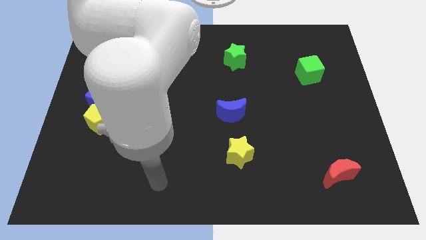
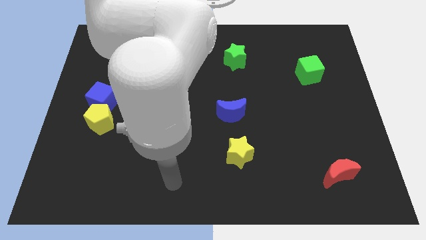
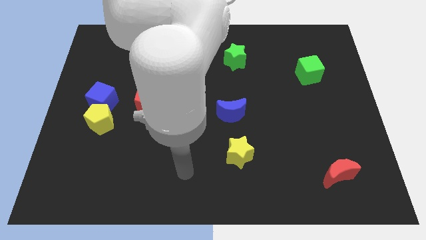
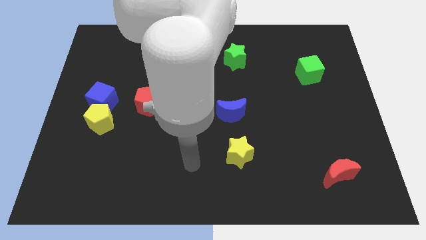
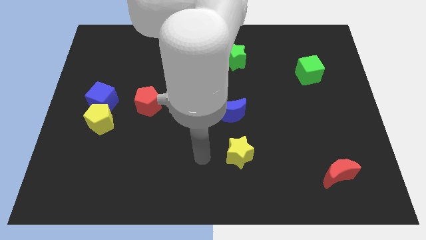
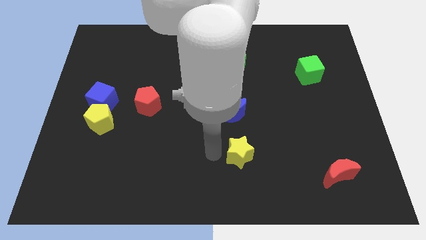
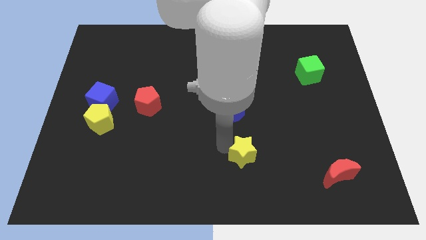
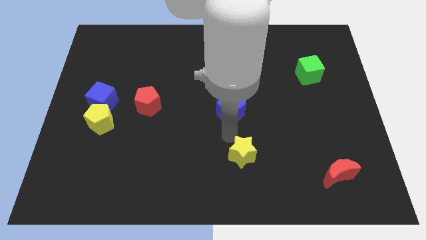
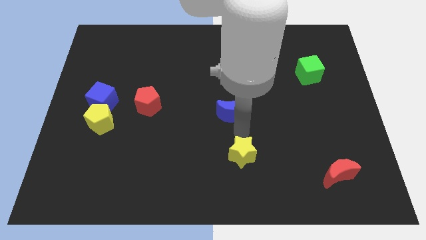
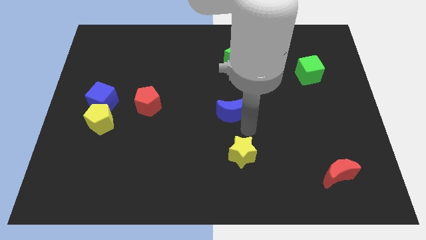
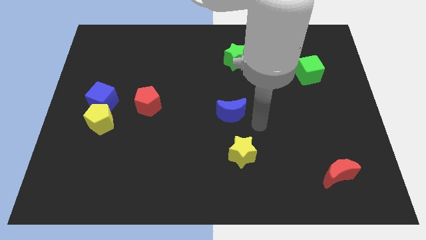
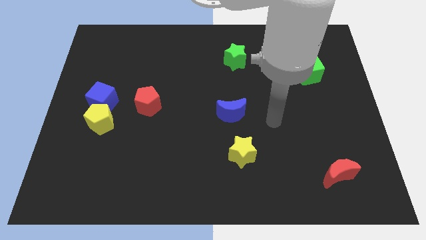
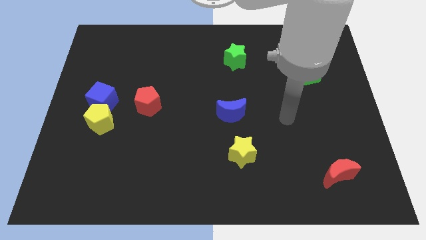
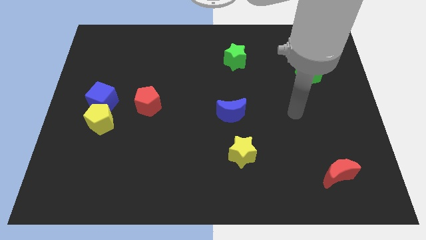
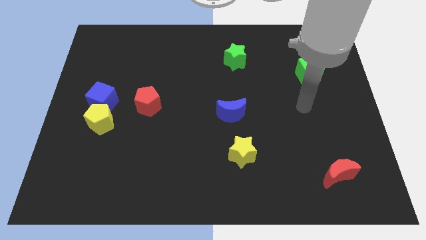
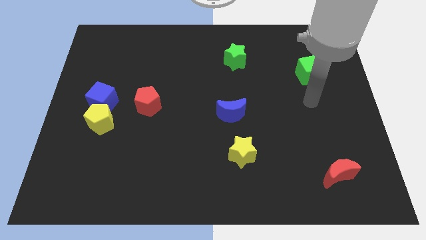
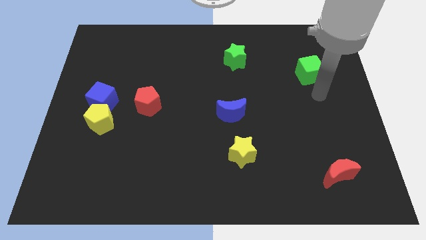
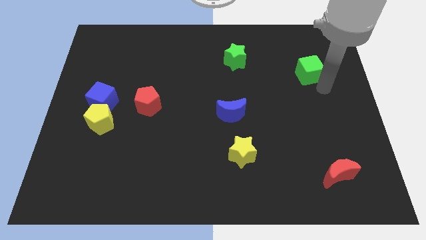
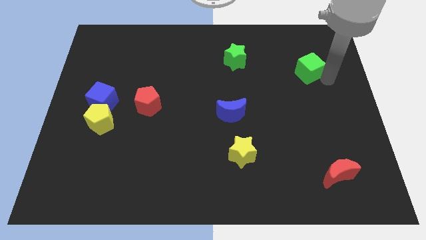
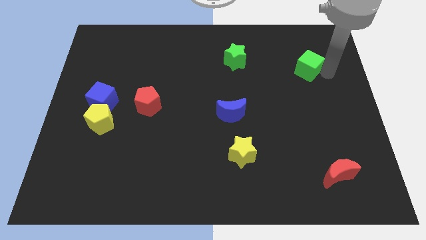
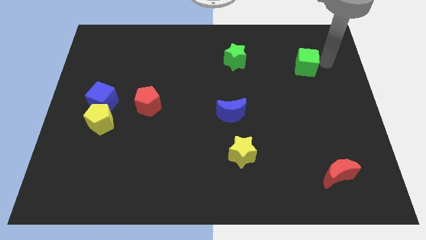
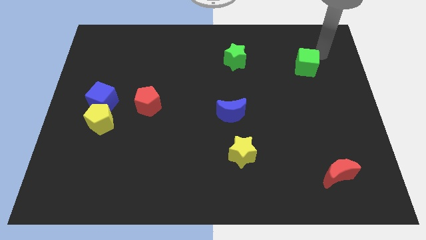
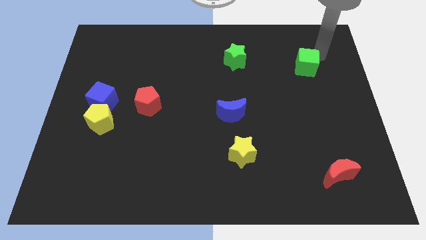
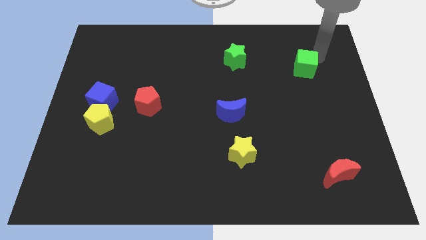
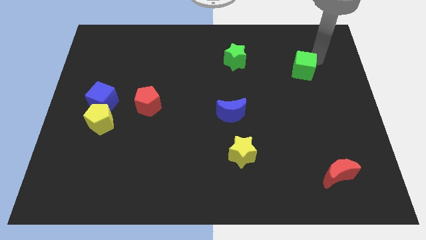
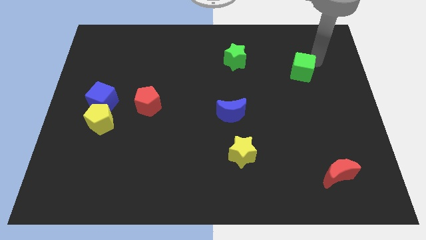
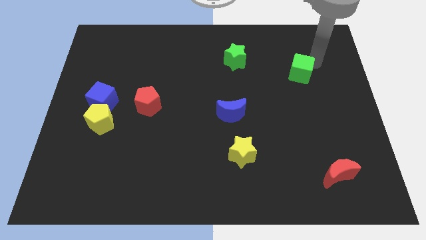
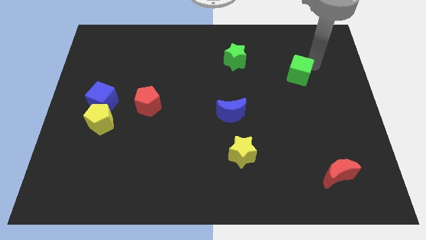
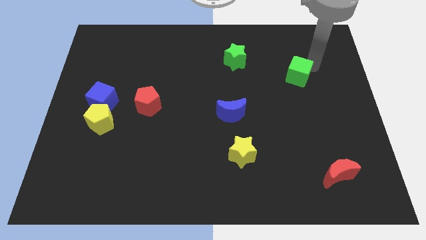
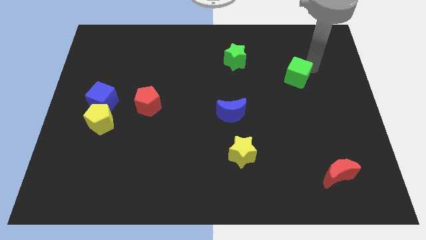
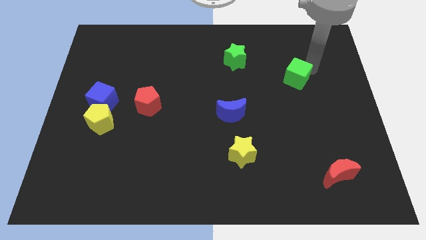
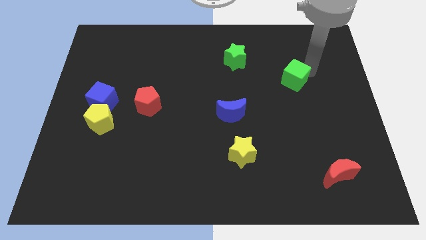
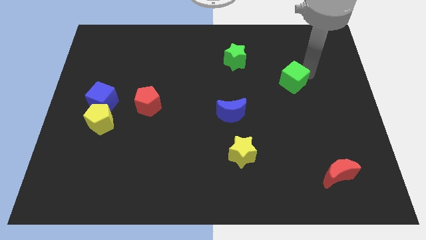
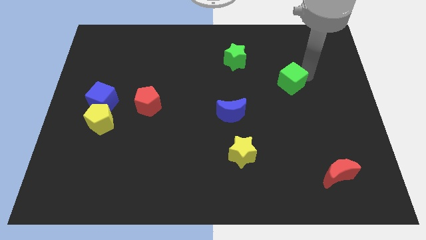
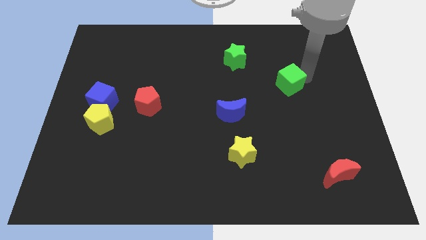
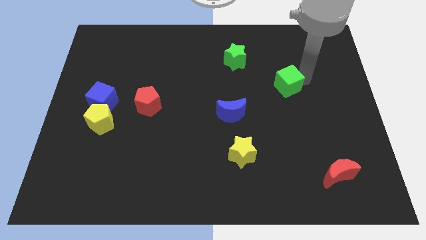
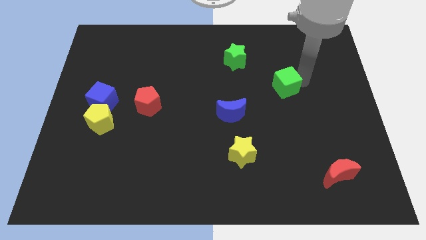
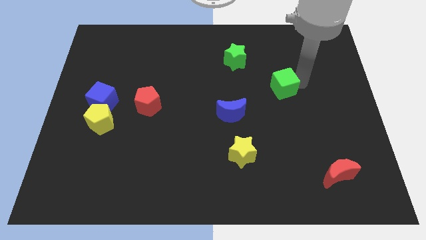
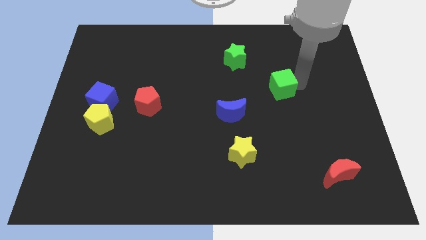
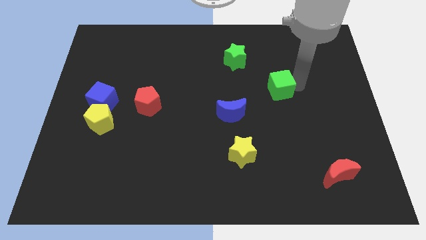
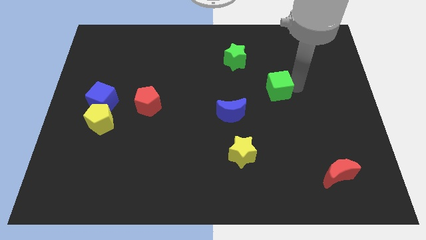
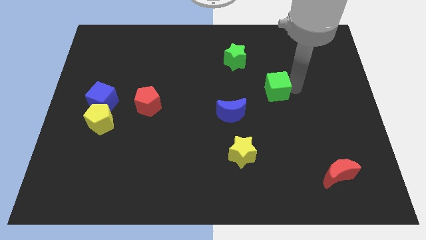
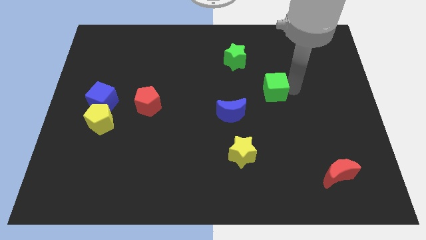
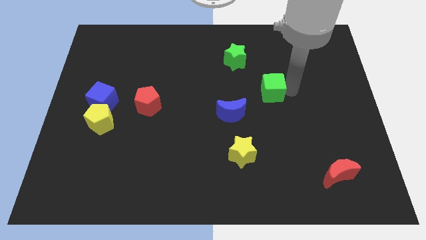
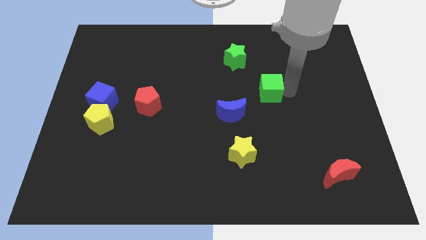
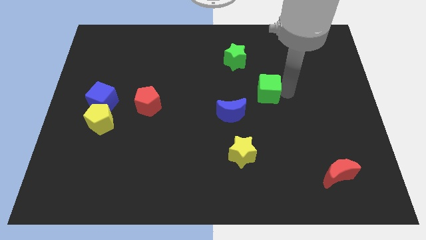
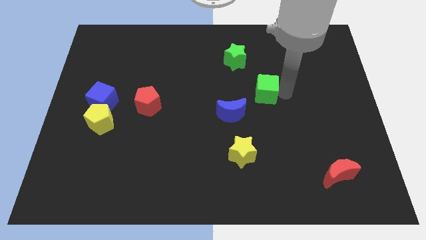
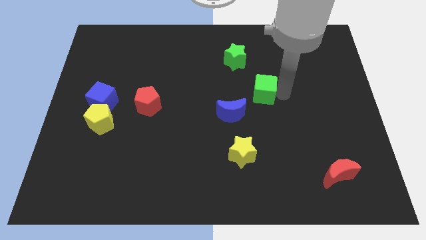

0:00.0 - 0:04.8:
put the green cube to the middle

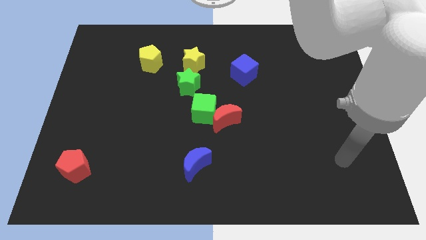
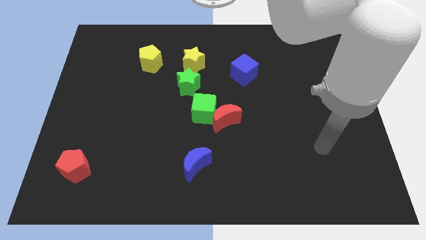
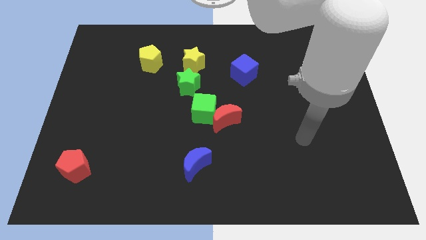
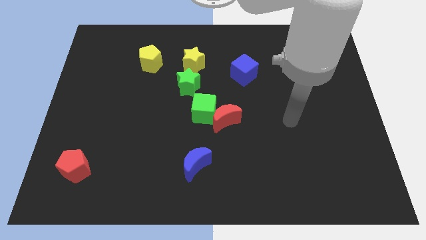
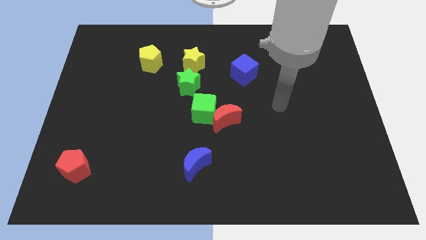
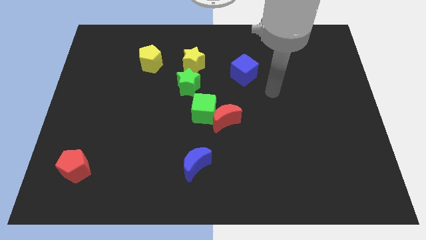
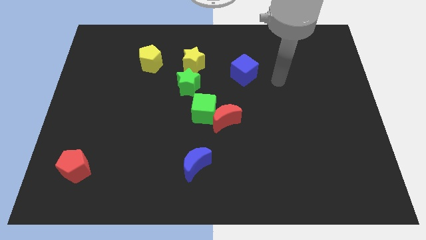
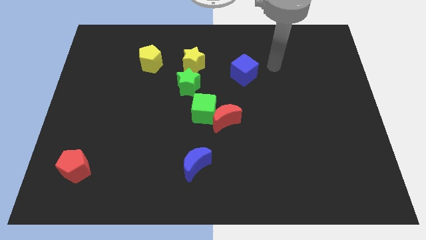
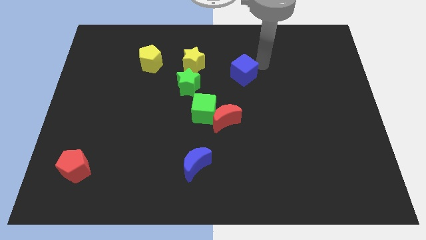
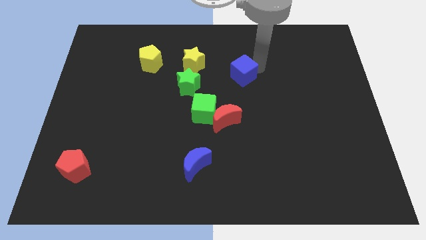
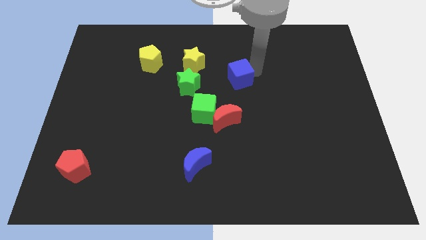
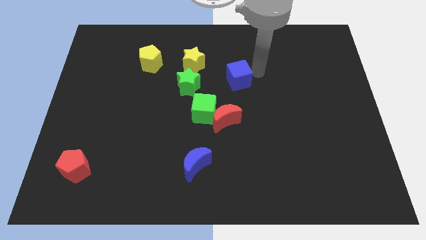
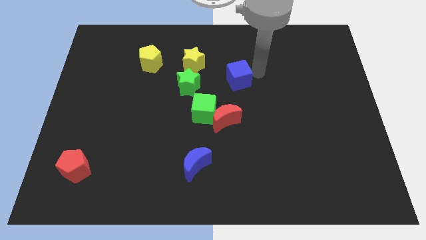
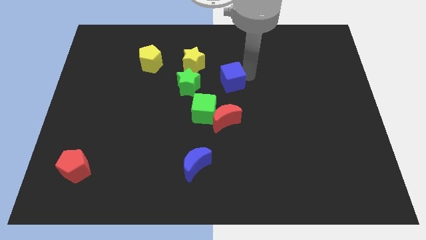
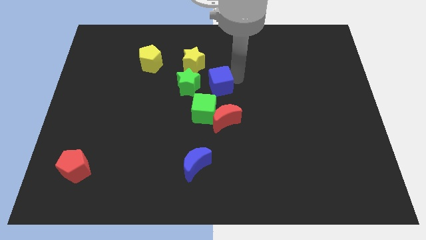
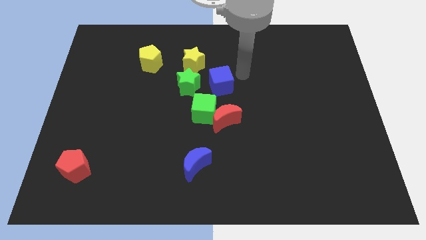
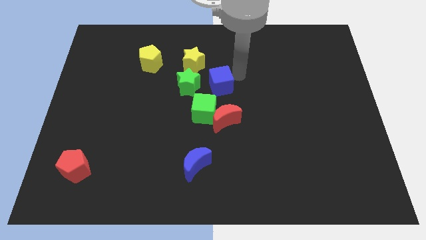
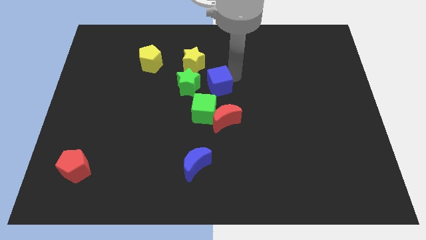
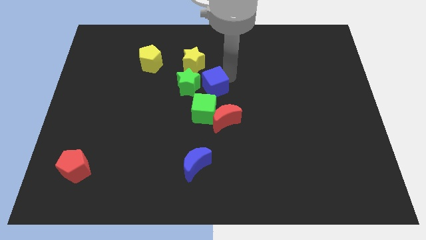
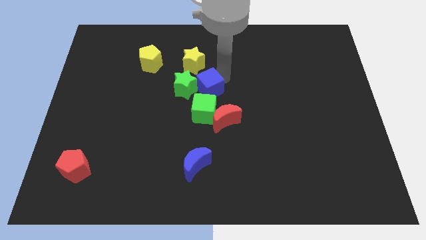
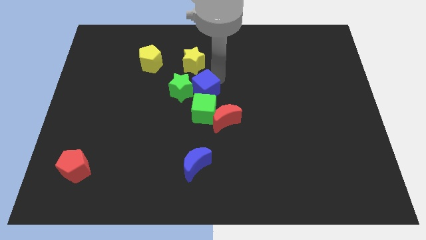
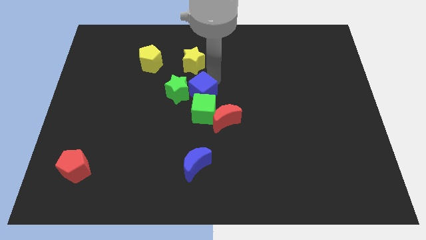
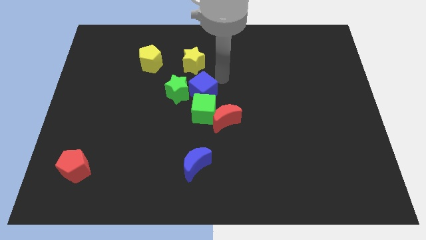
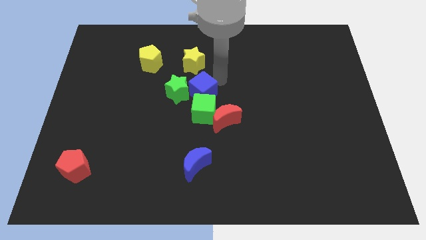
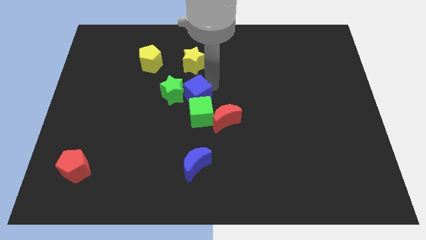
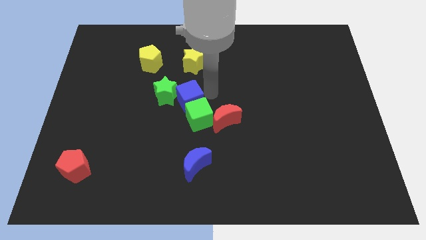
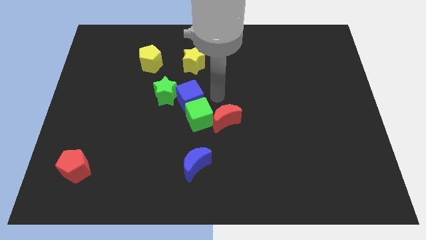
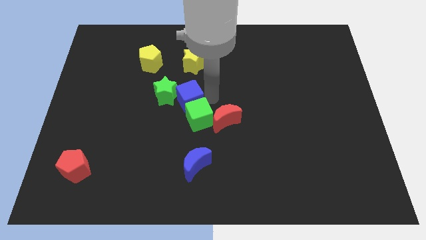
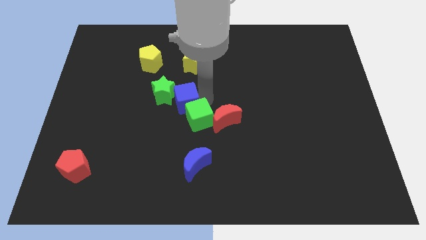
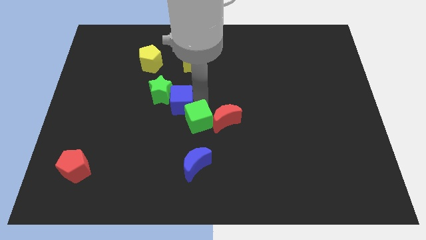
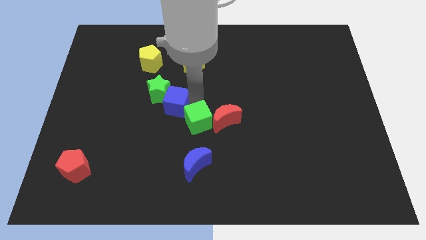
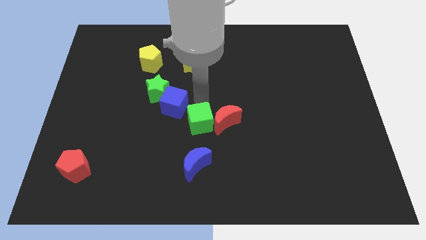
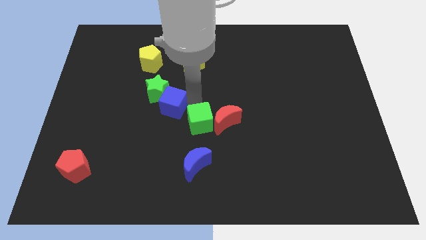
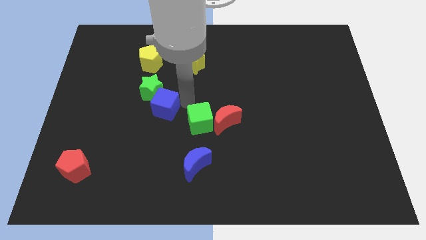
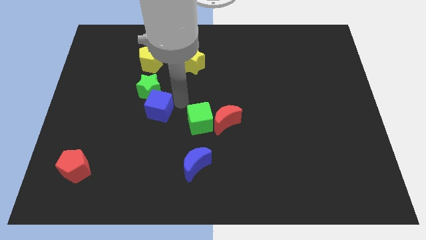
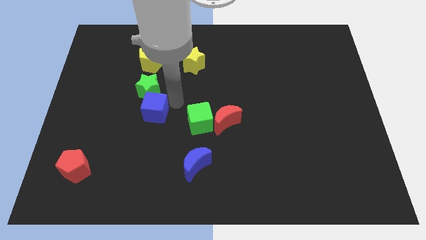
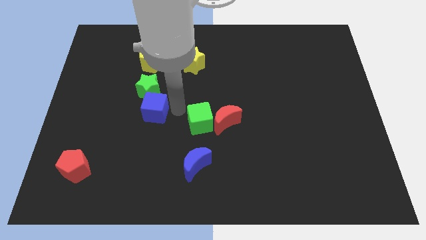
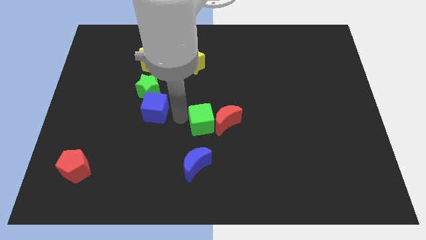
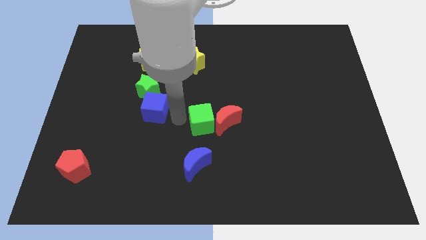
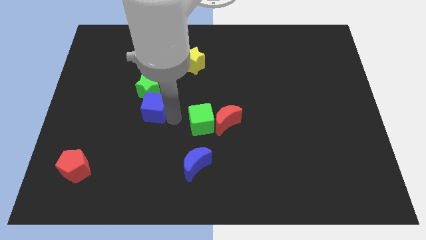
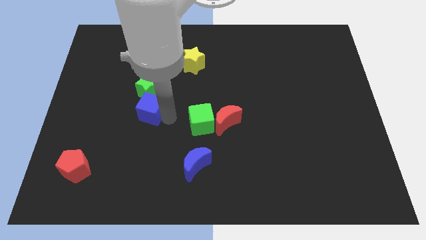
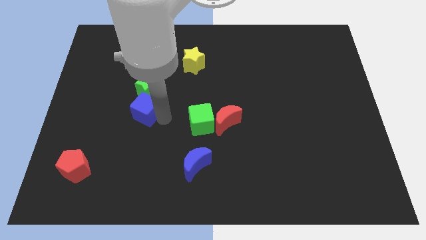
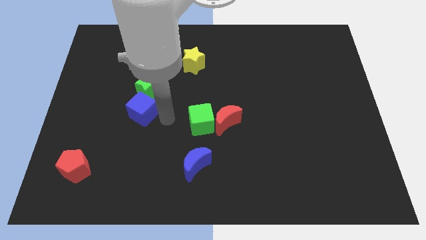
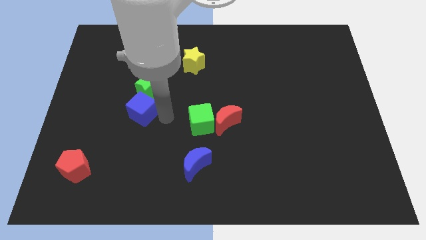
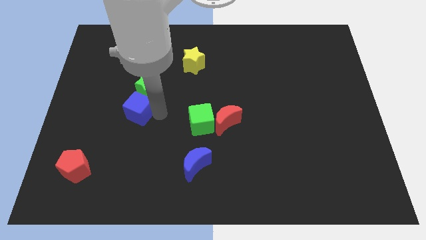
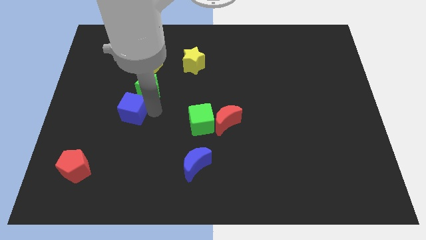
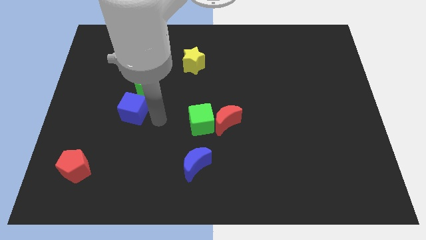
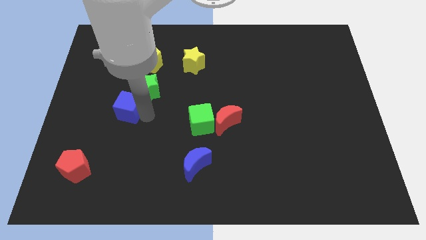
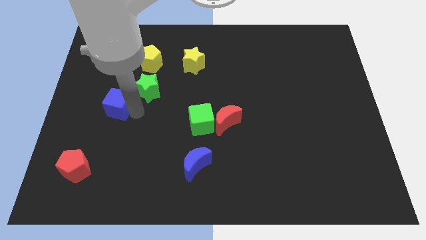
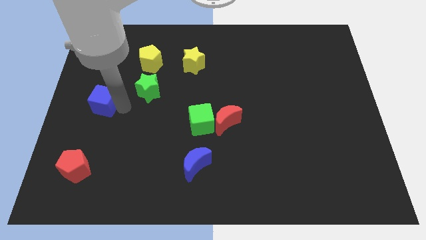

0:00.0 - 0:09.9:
push the blue cube to the left side of the board
